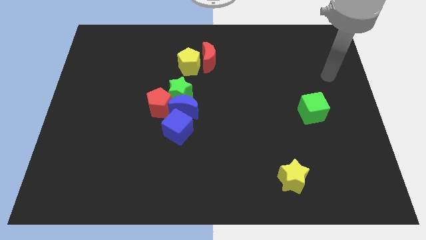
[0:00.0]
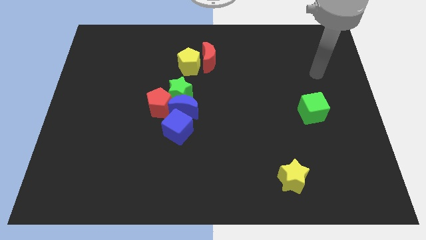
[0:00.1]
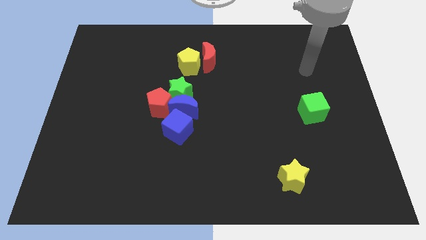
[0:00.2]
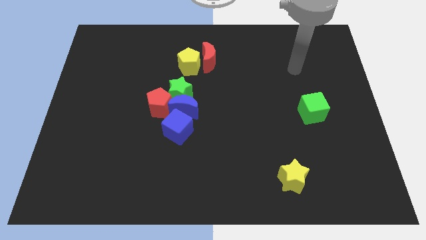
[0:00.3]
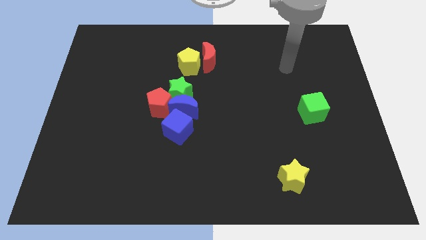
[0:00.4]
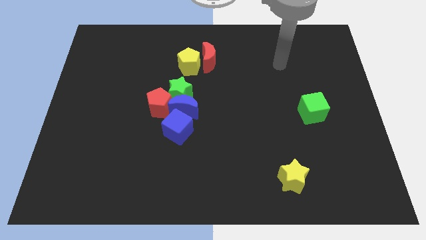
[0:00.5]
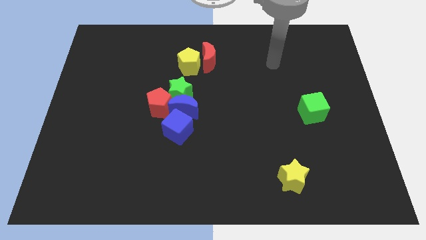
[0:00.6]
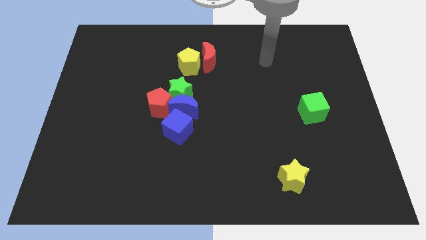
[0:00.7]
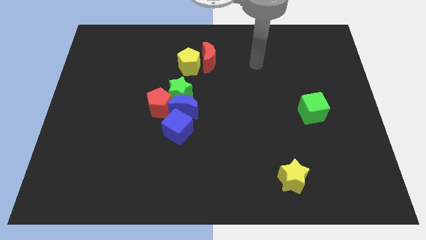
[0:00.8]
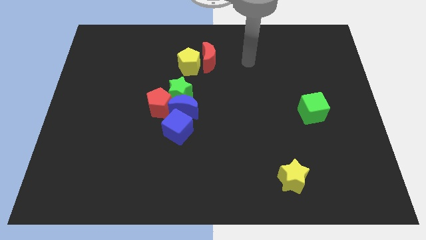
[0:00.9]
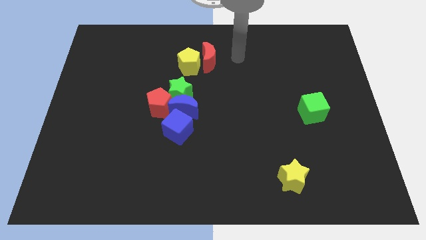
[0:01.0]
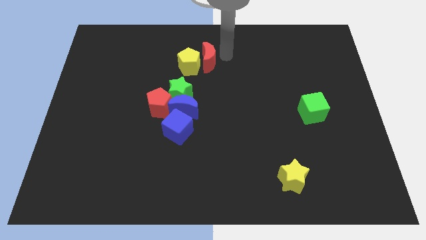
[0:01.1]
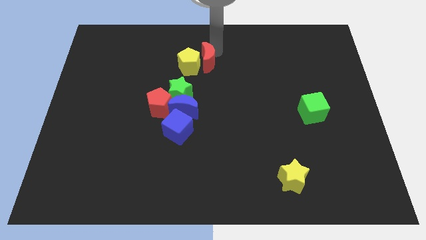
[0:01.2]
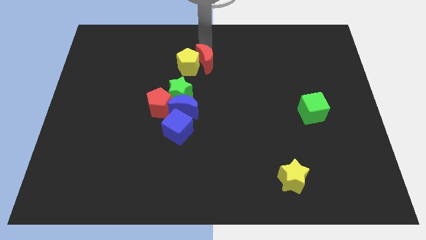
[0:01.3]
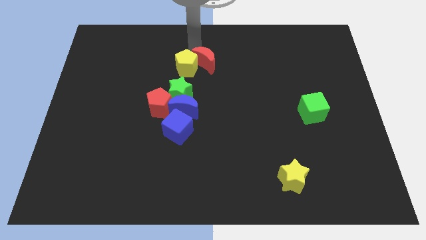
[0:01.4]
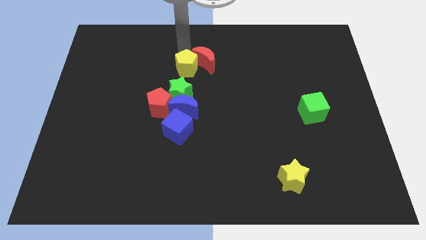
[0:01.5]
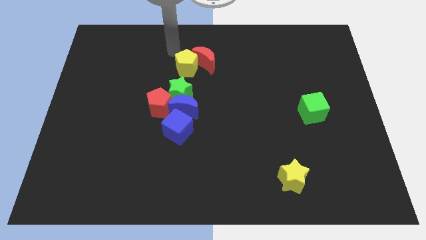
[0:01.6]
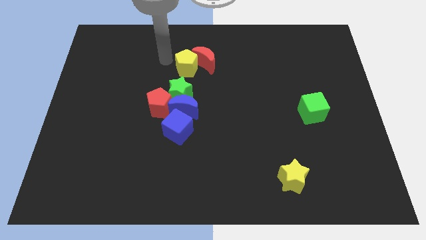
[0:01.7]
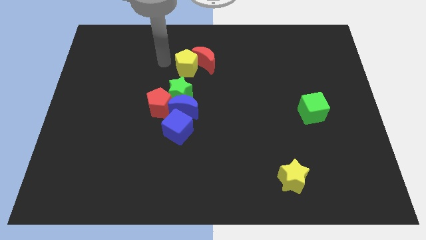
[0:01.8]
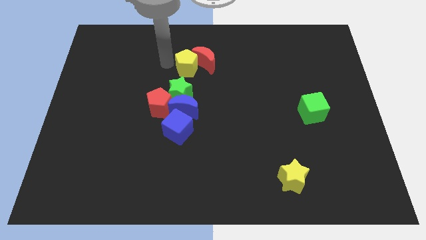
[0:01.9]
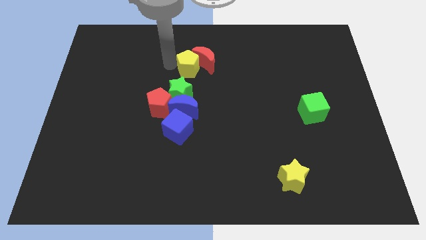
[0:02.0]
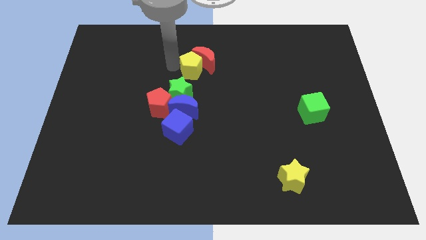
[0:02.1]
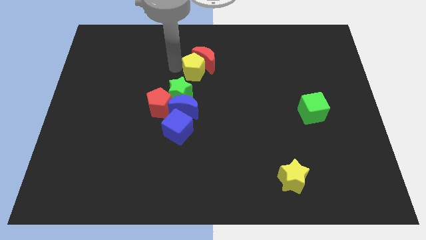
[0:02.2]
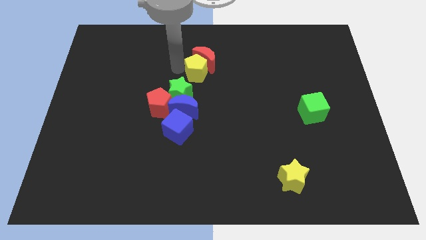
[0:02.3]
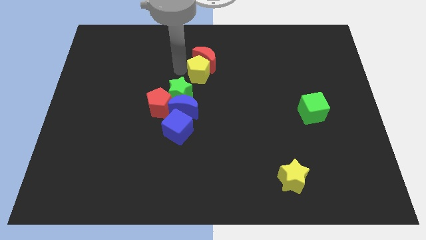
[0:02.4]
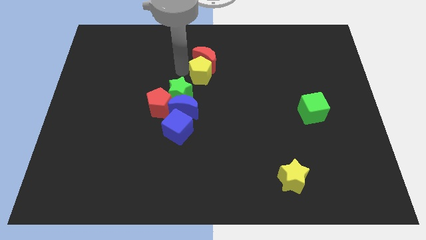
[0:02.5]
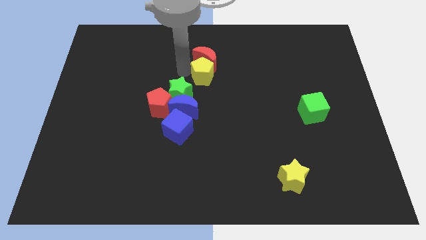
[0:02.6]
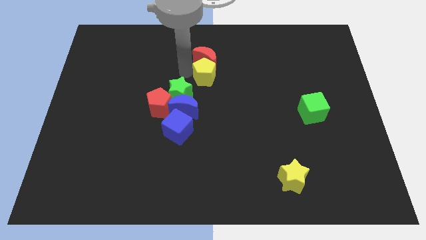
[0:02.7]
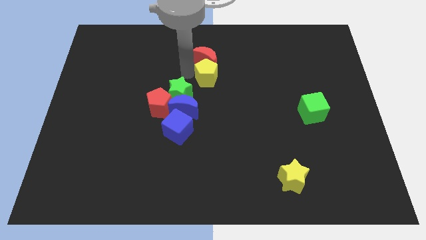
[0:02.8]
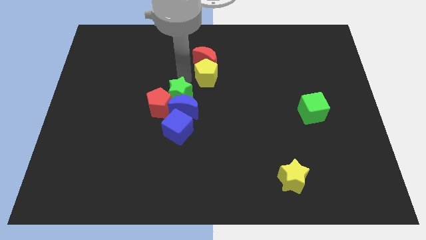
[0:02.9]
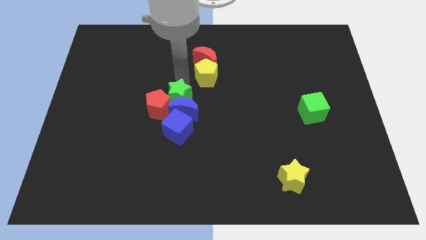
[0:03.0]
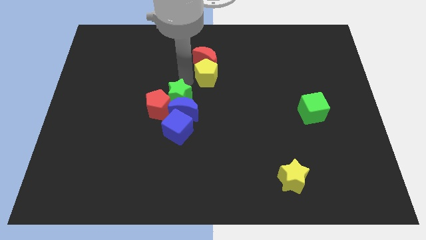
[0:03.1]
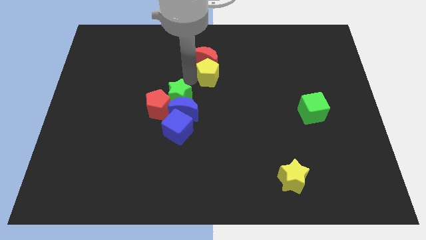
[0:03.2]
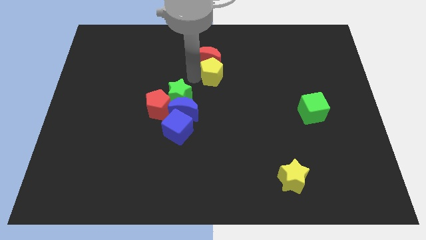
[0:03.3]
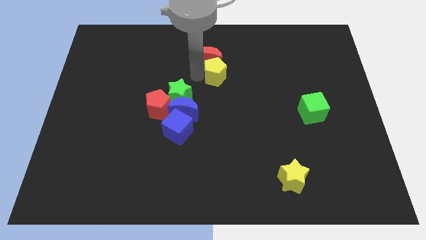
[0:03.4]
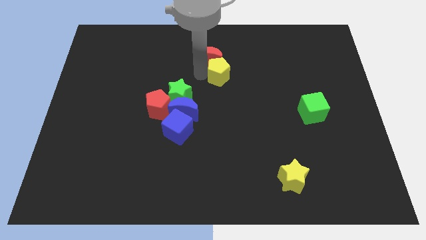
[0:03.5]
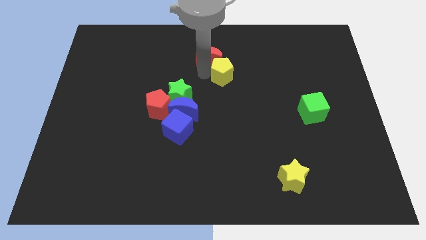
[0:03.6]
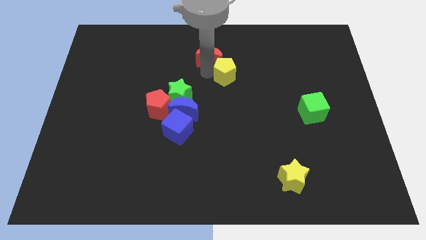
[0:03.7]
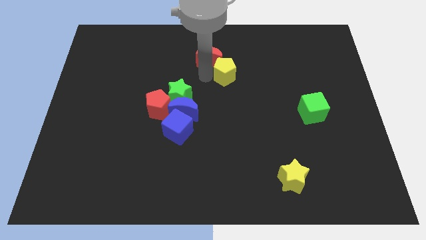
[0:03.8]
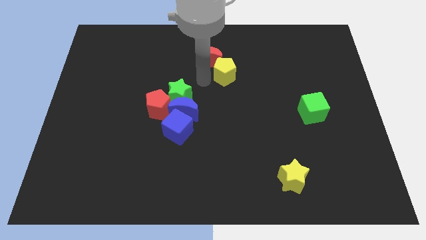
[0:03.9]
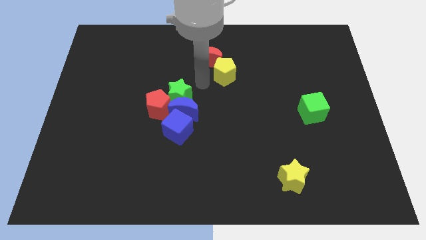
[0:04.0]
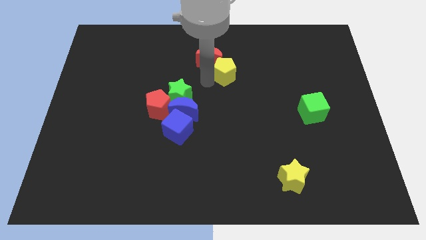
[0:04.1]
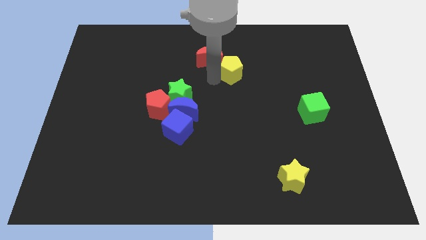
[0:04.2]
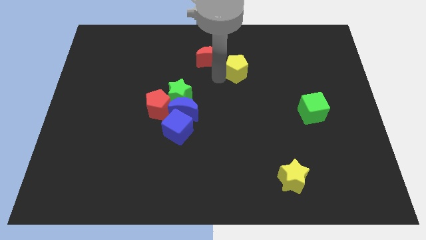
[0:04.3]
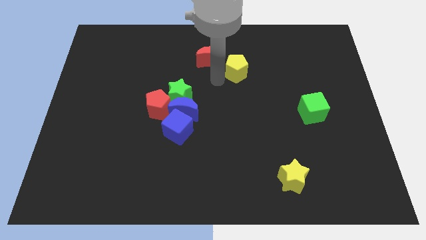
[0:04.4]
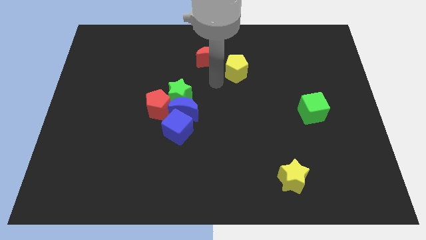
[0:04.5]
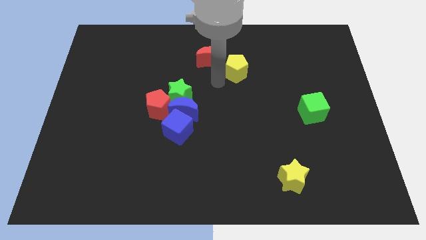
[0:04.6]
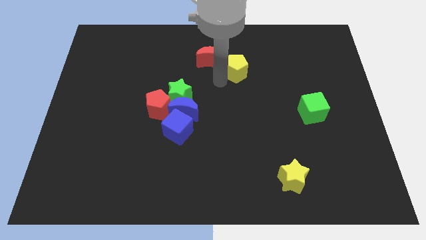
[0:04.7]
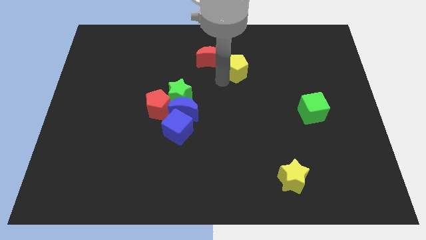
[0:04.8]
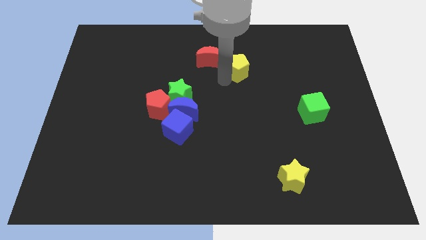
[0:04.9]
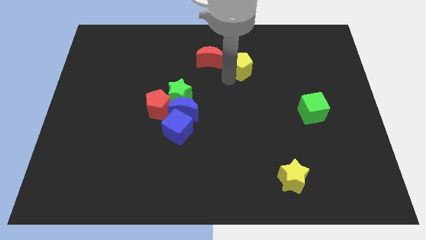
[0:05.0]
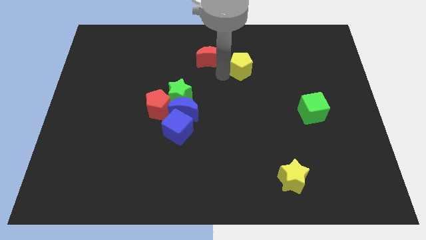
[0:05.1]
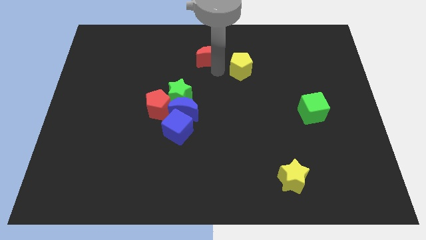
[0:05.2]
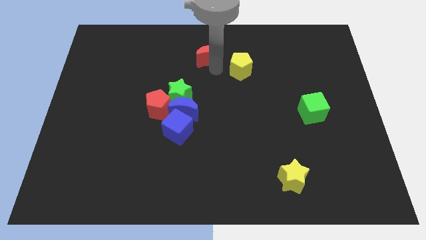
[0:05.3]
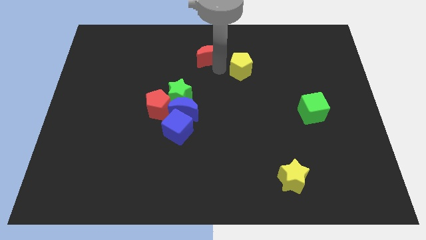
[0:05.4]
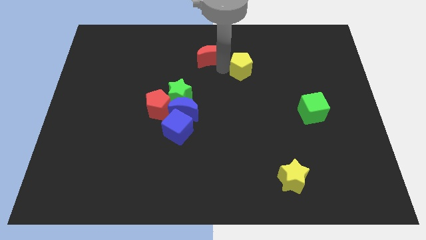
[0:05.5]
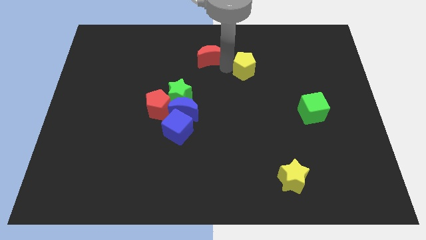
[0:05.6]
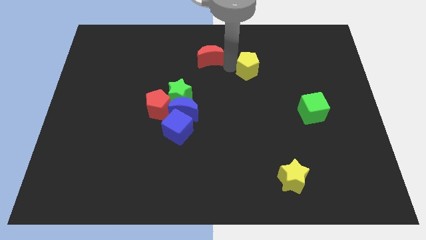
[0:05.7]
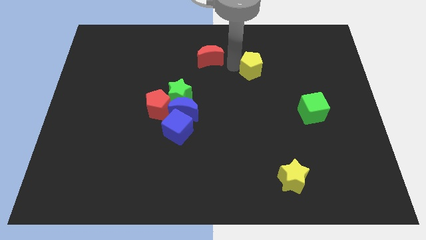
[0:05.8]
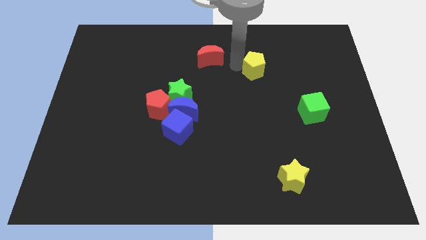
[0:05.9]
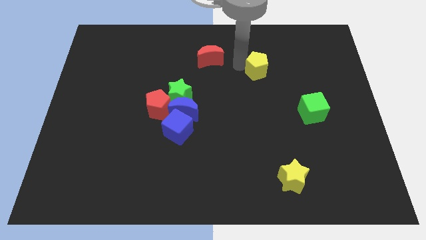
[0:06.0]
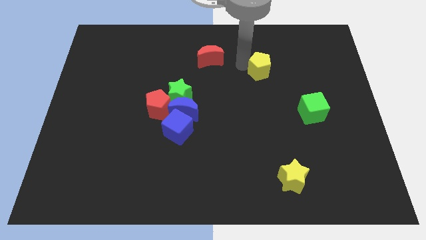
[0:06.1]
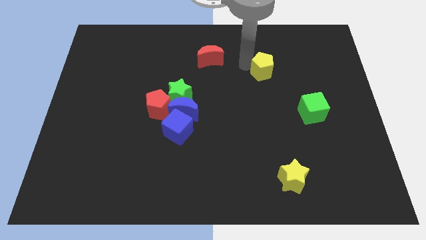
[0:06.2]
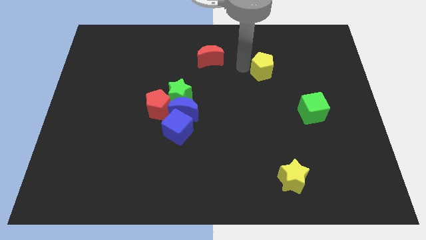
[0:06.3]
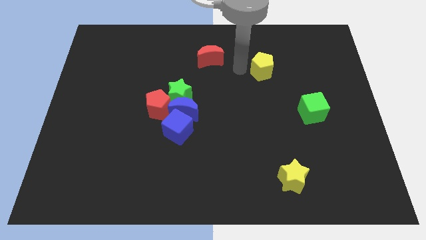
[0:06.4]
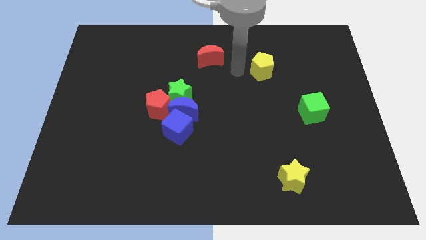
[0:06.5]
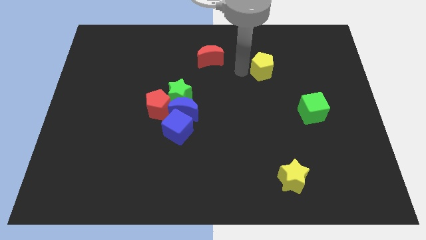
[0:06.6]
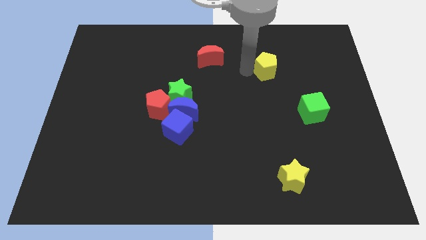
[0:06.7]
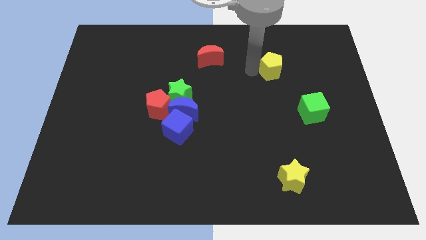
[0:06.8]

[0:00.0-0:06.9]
push the yellow pentagon to the right

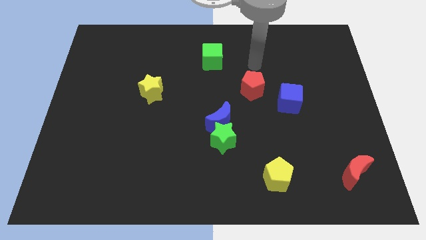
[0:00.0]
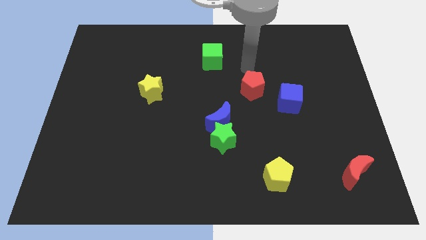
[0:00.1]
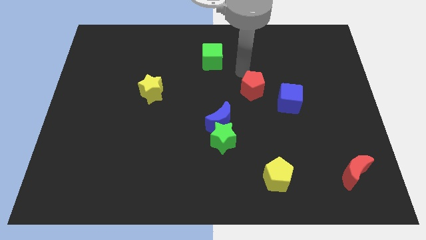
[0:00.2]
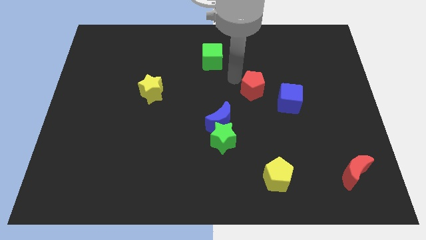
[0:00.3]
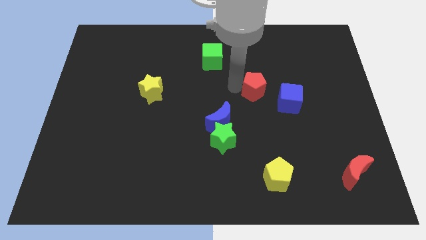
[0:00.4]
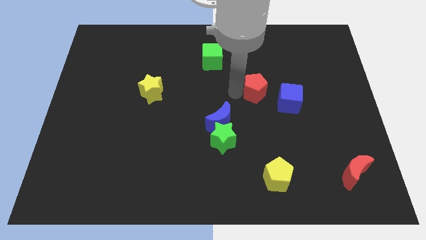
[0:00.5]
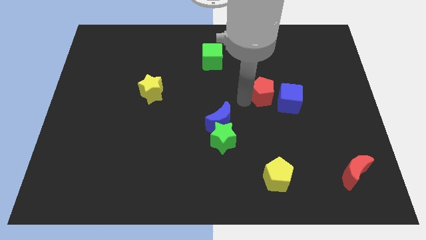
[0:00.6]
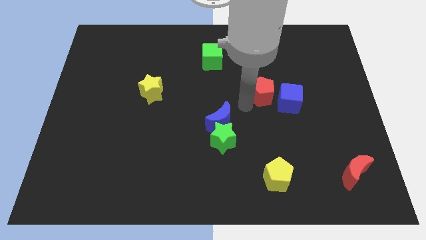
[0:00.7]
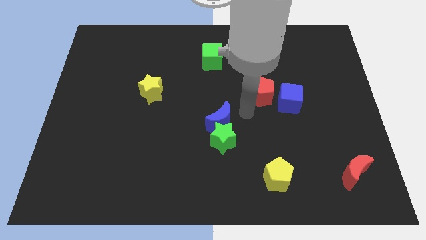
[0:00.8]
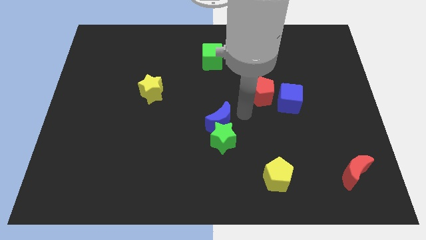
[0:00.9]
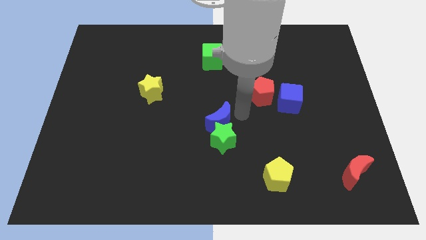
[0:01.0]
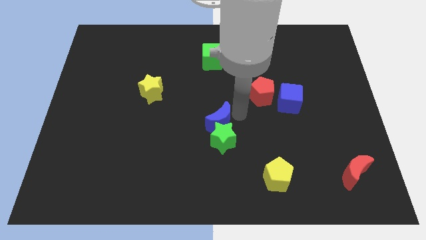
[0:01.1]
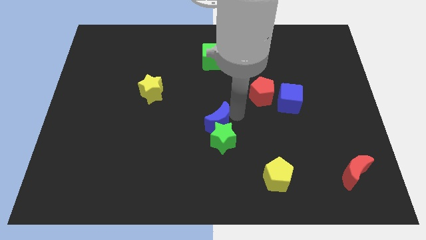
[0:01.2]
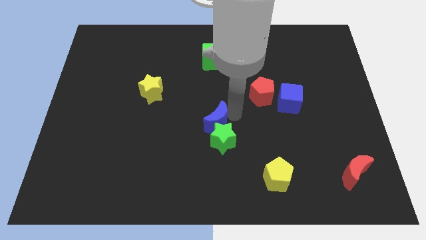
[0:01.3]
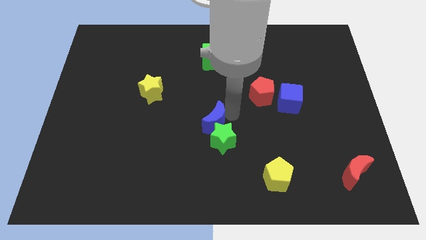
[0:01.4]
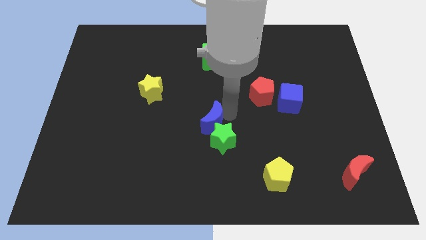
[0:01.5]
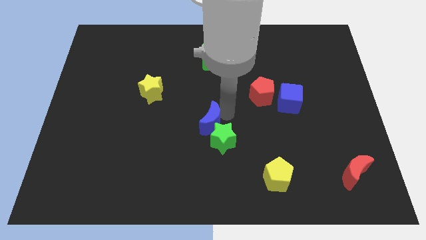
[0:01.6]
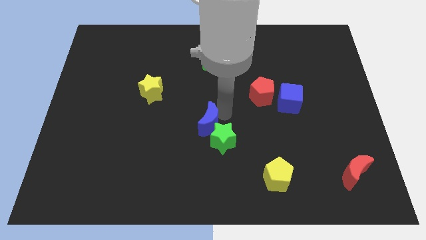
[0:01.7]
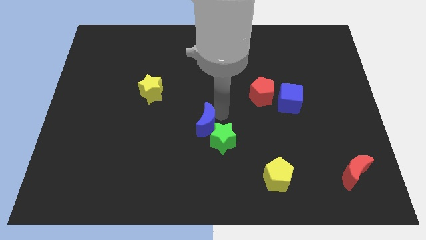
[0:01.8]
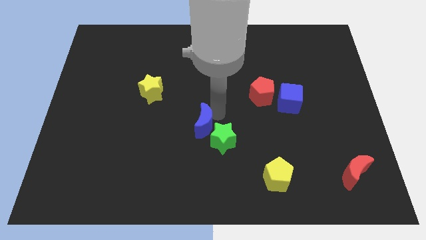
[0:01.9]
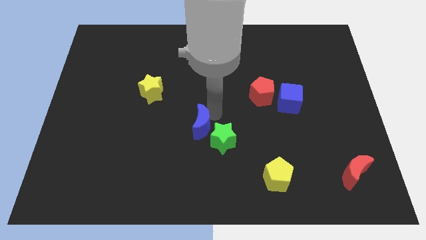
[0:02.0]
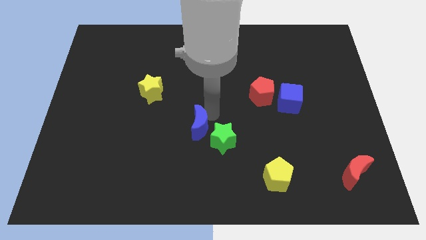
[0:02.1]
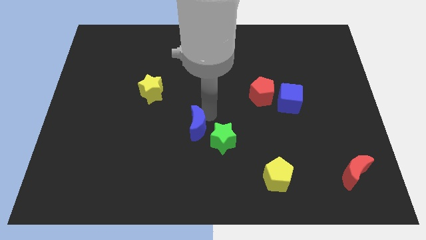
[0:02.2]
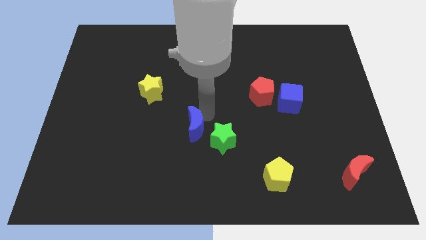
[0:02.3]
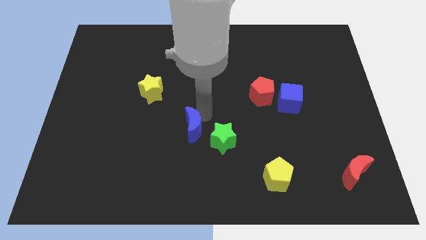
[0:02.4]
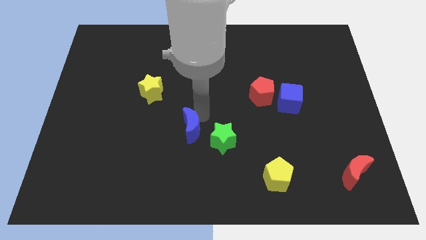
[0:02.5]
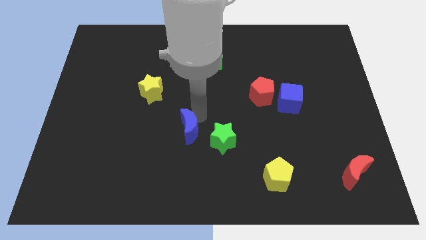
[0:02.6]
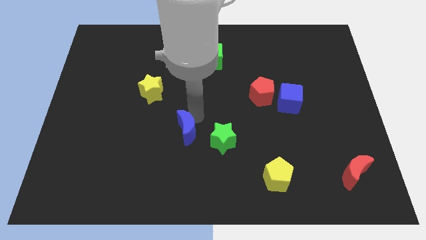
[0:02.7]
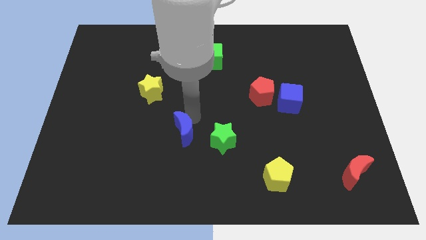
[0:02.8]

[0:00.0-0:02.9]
move the blue moon downwards and then left slightly
